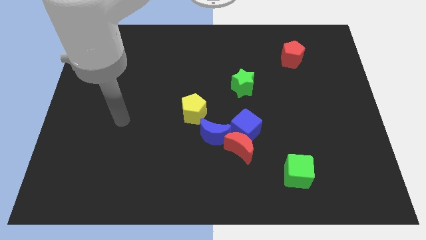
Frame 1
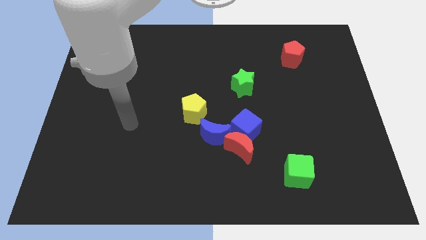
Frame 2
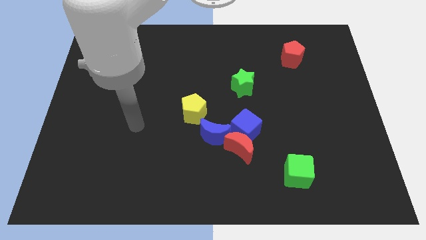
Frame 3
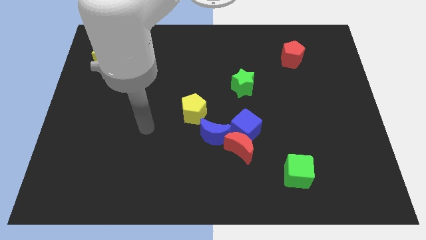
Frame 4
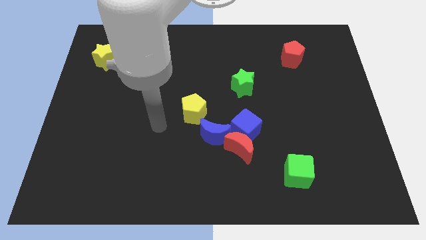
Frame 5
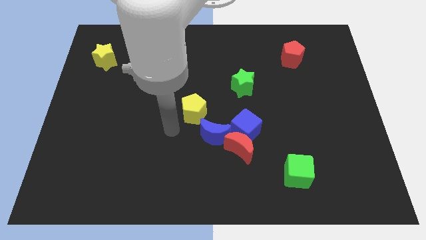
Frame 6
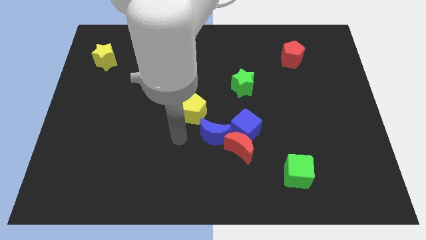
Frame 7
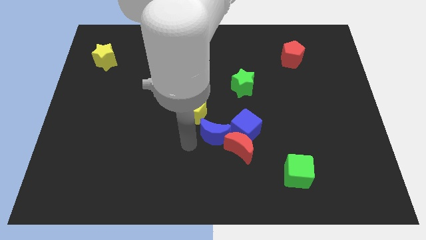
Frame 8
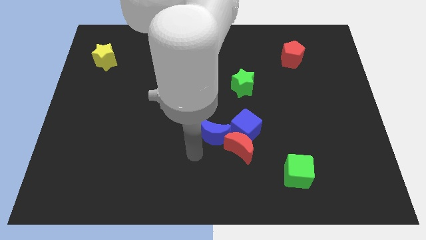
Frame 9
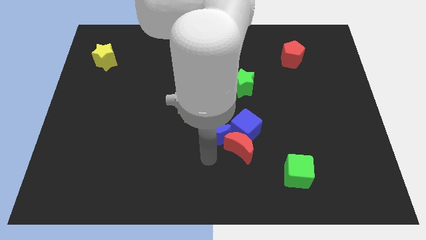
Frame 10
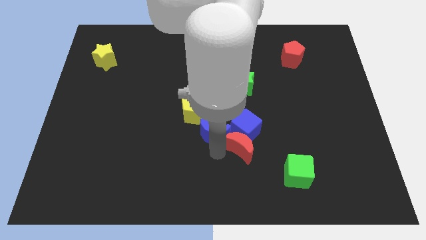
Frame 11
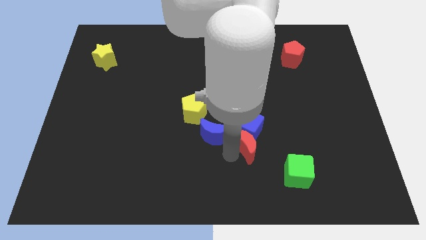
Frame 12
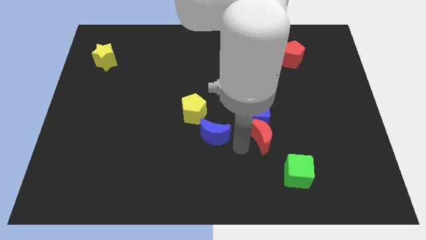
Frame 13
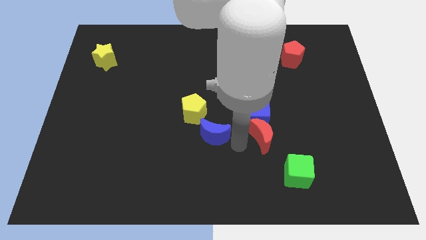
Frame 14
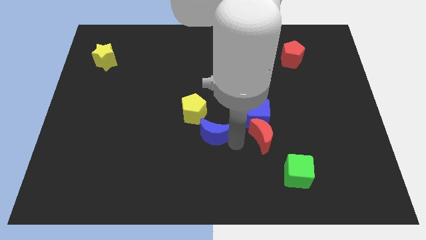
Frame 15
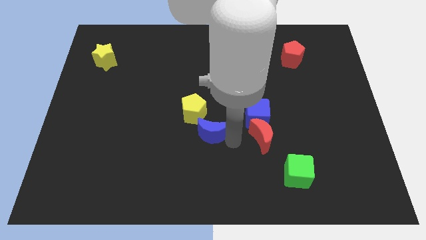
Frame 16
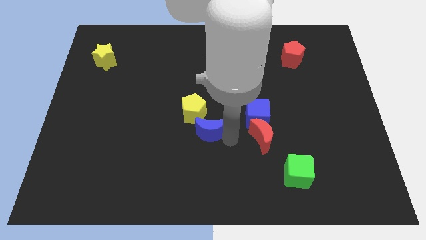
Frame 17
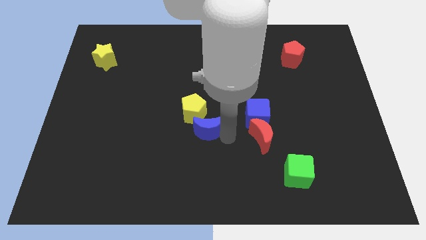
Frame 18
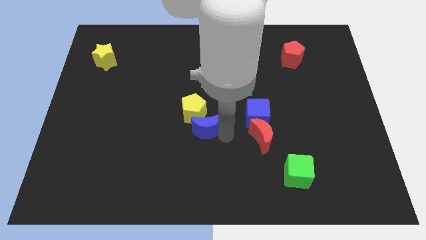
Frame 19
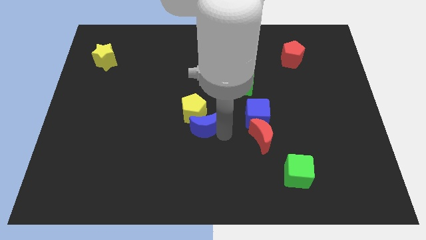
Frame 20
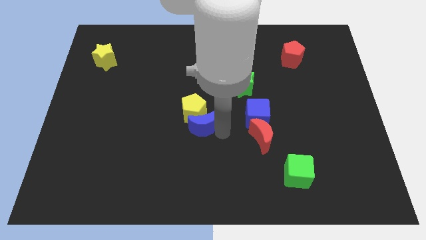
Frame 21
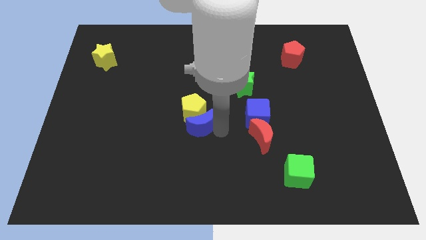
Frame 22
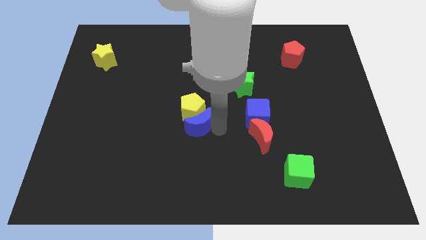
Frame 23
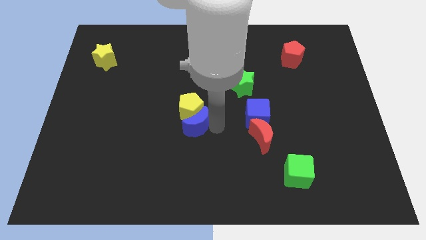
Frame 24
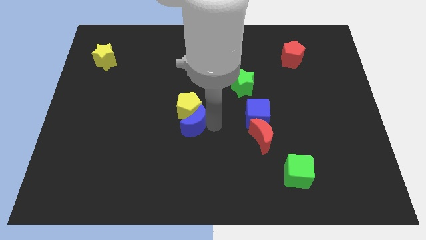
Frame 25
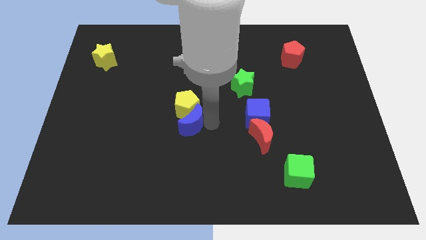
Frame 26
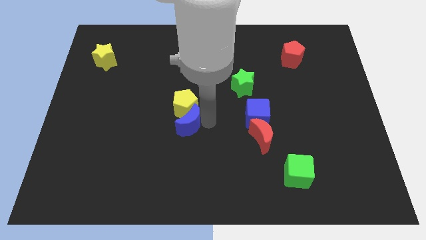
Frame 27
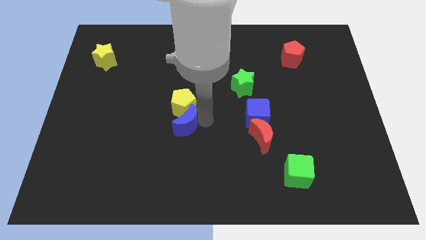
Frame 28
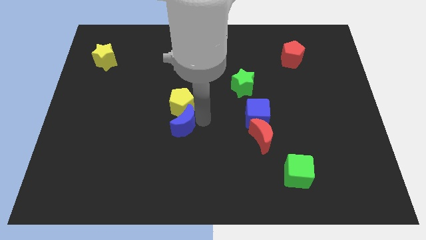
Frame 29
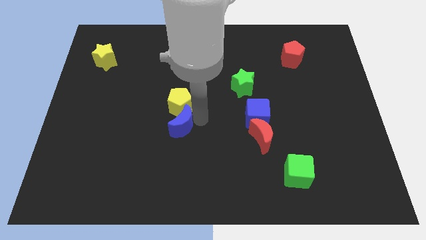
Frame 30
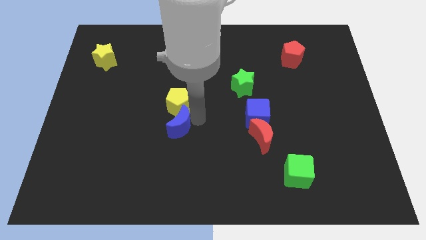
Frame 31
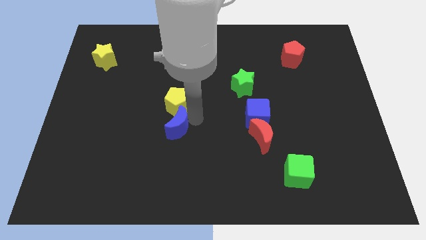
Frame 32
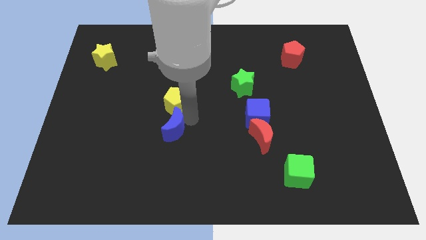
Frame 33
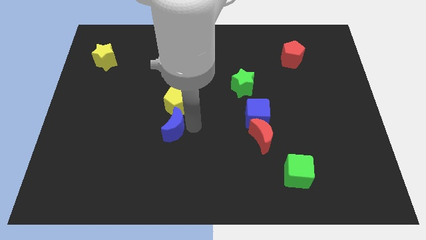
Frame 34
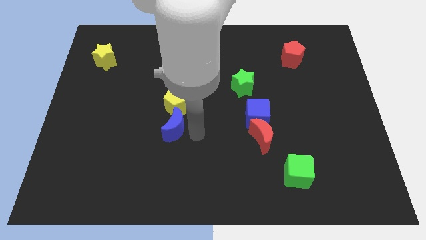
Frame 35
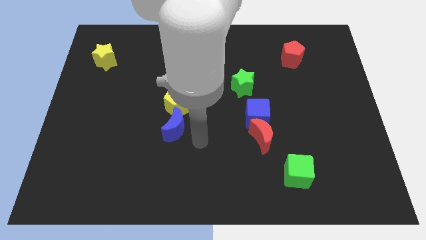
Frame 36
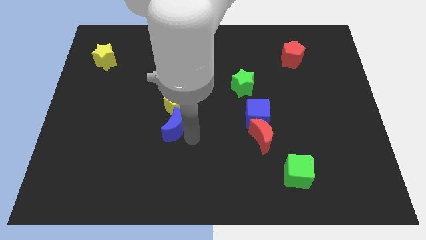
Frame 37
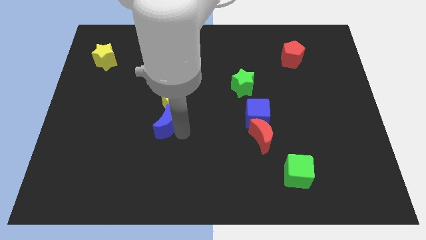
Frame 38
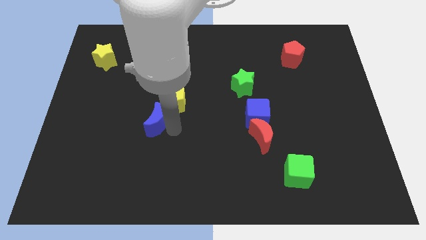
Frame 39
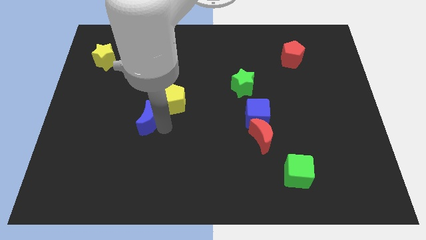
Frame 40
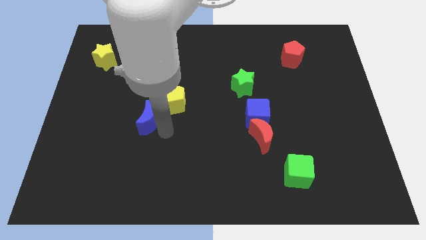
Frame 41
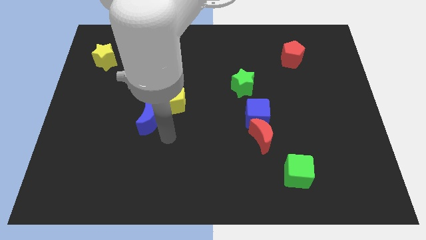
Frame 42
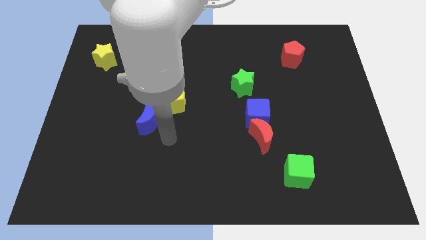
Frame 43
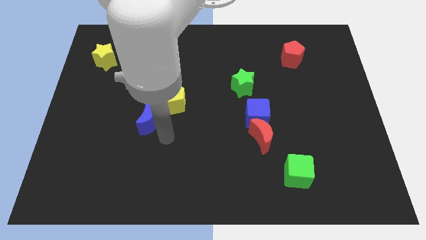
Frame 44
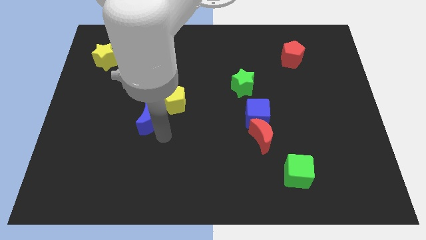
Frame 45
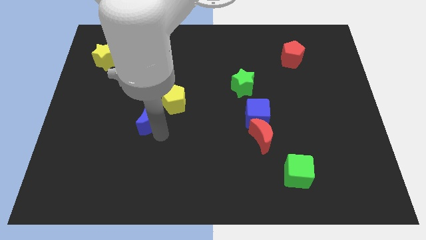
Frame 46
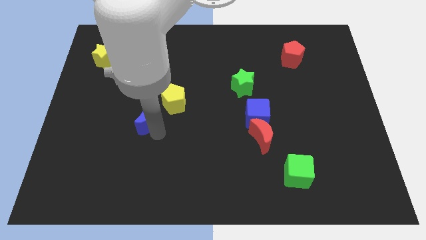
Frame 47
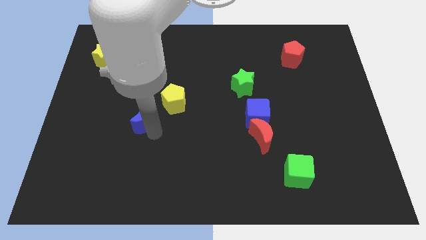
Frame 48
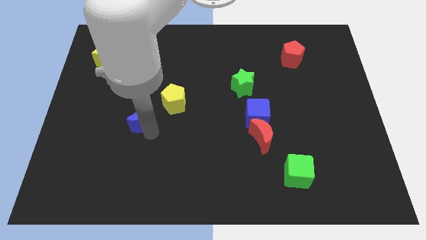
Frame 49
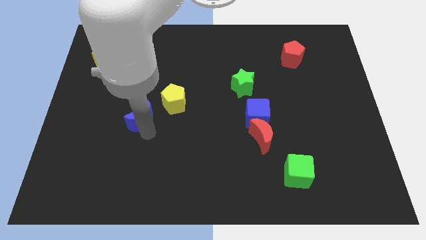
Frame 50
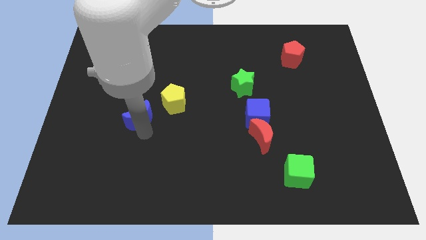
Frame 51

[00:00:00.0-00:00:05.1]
put the blue moon to the left side of the yellow pentagon

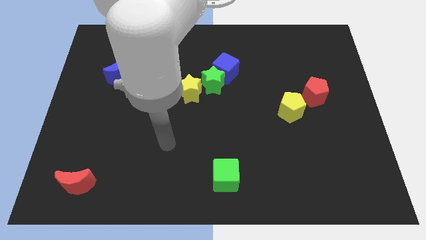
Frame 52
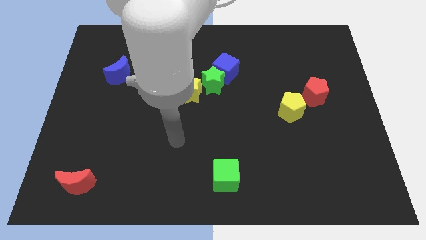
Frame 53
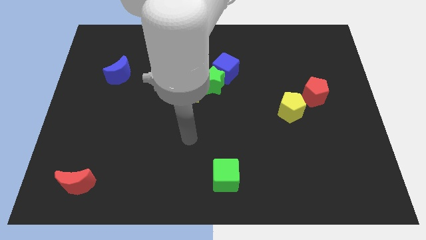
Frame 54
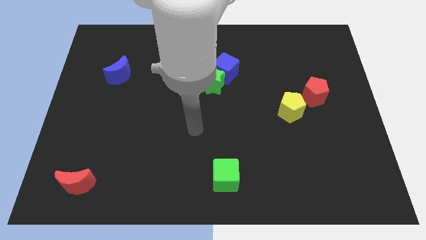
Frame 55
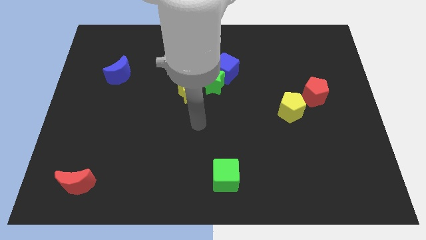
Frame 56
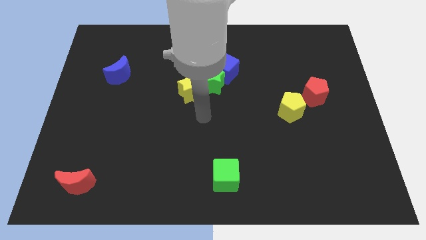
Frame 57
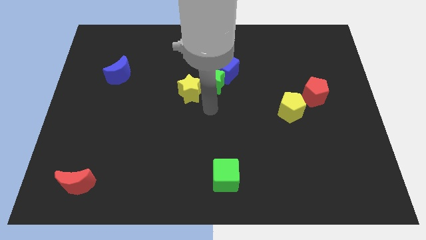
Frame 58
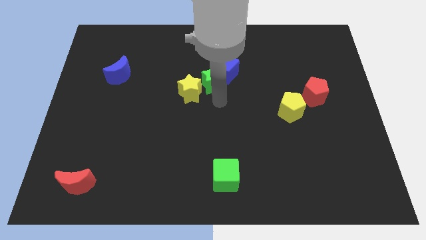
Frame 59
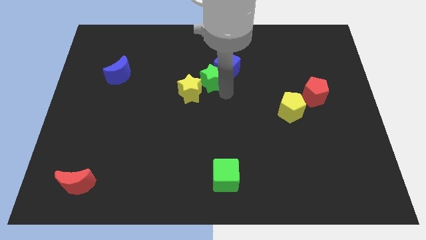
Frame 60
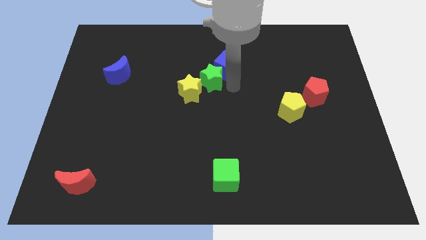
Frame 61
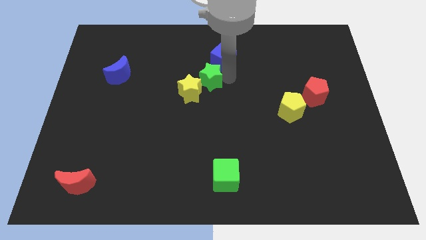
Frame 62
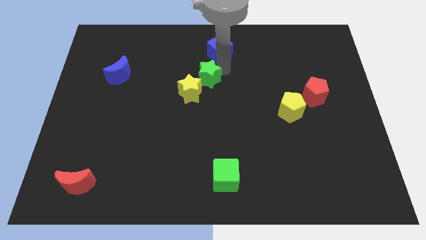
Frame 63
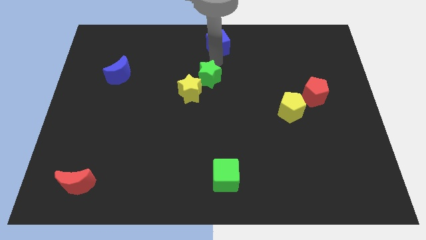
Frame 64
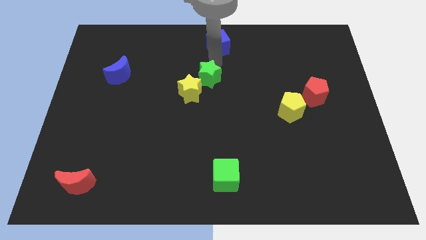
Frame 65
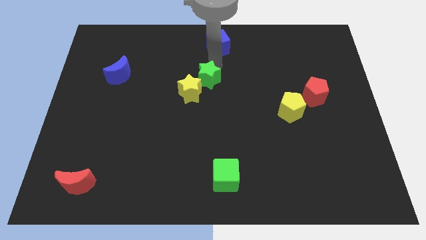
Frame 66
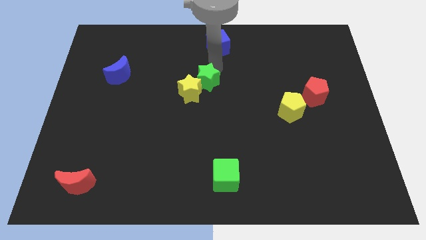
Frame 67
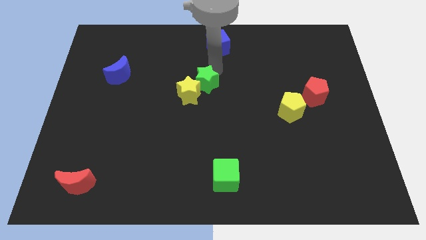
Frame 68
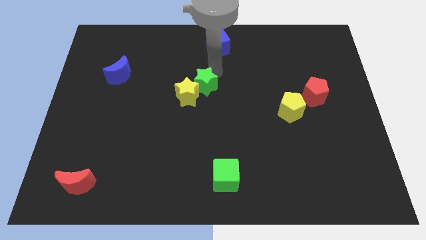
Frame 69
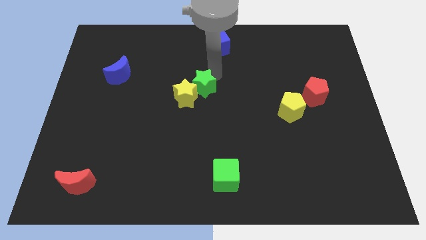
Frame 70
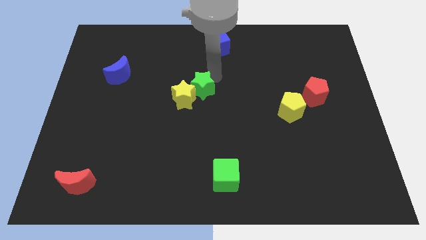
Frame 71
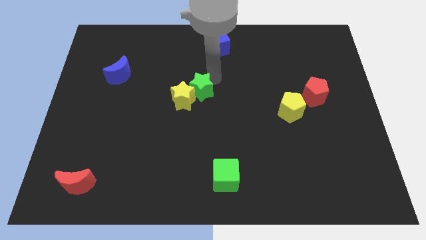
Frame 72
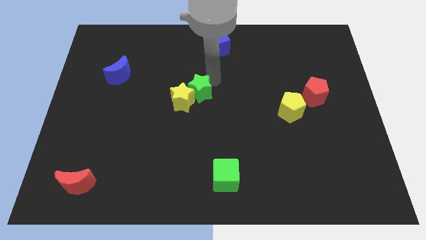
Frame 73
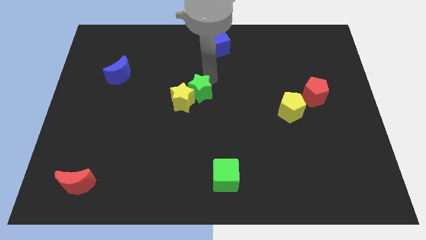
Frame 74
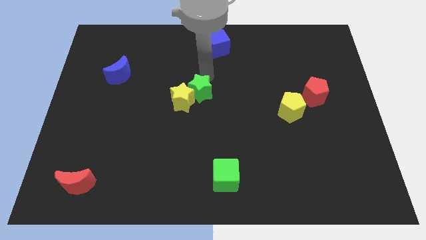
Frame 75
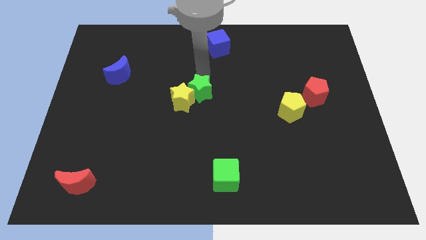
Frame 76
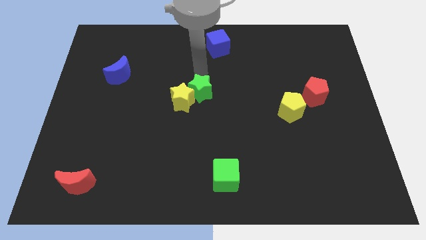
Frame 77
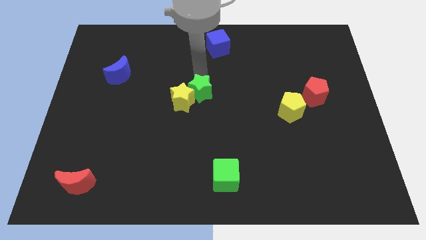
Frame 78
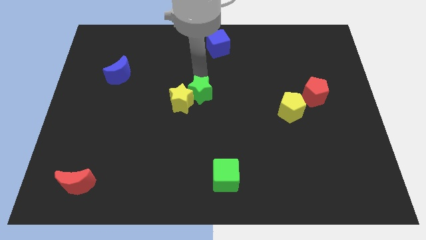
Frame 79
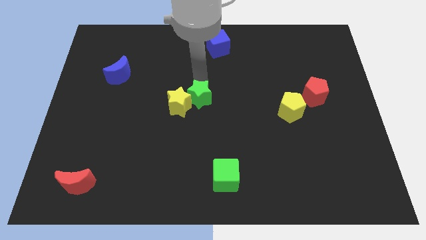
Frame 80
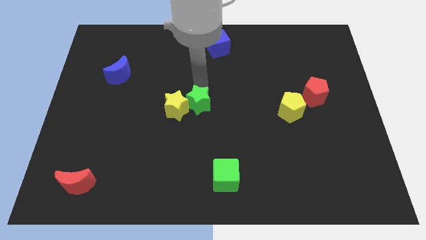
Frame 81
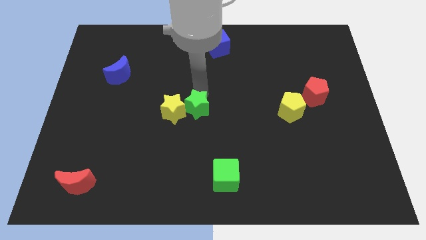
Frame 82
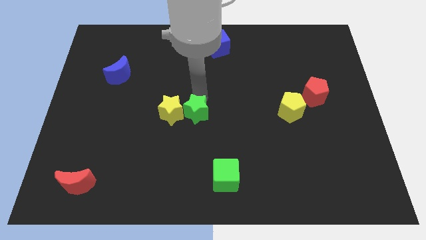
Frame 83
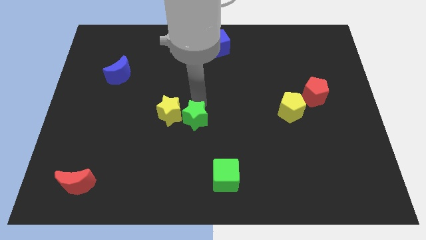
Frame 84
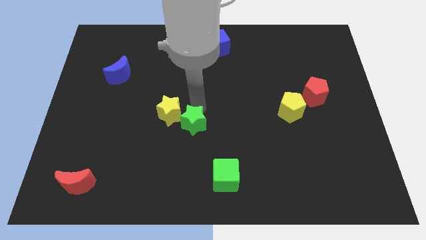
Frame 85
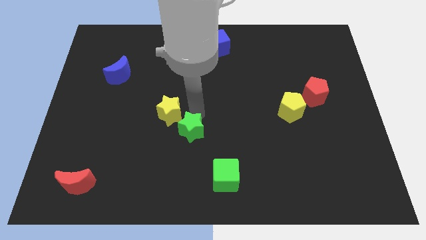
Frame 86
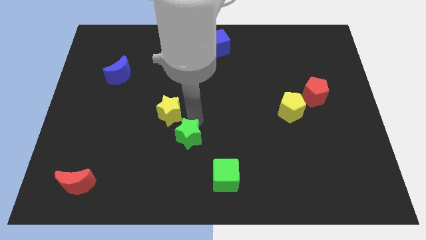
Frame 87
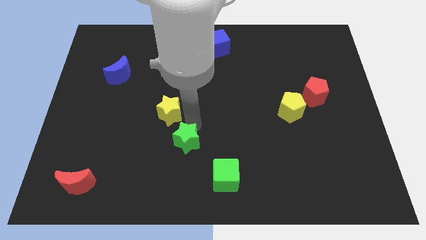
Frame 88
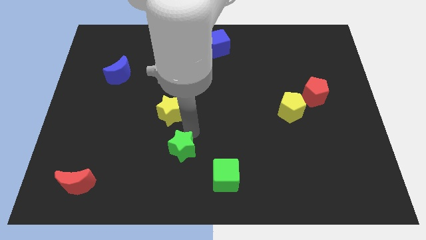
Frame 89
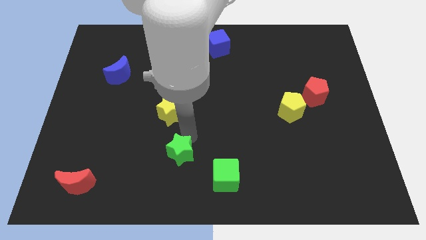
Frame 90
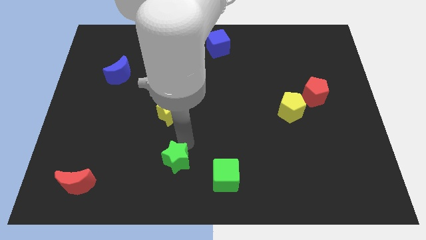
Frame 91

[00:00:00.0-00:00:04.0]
push the green star just left of the green cube
